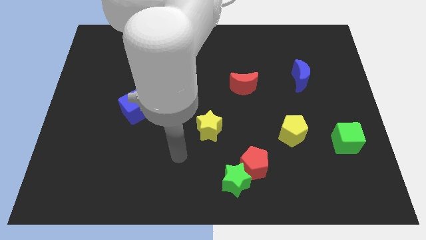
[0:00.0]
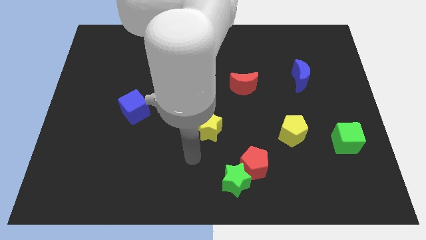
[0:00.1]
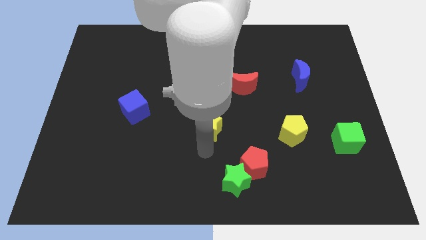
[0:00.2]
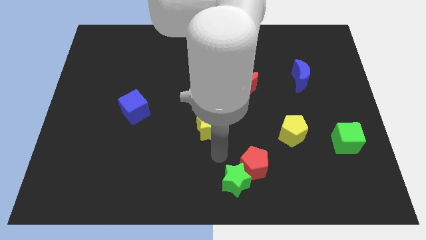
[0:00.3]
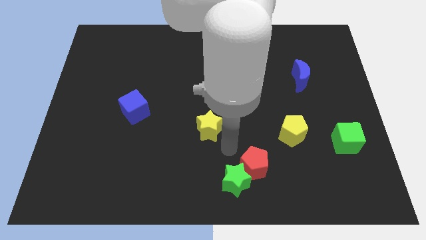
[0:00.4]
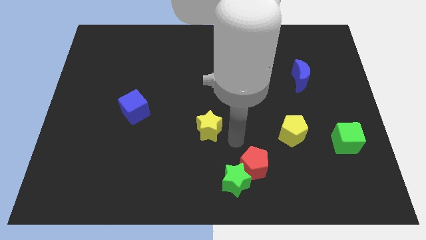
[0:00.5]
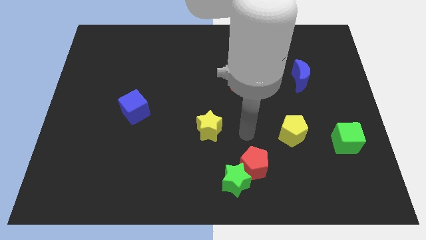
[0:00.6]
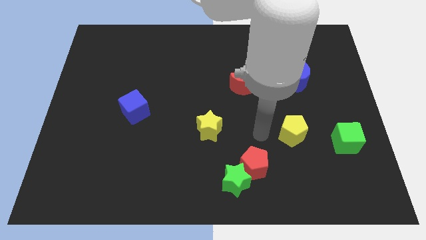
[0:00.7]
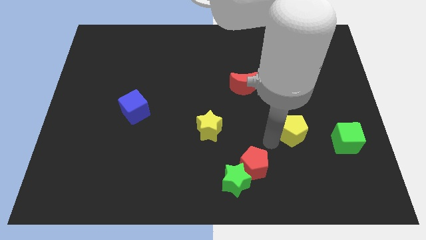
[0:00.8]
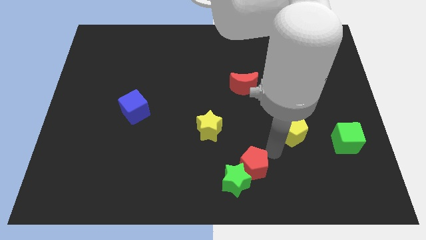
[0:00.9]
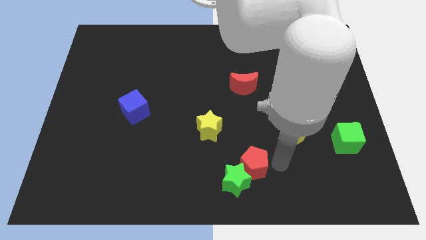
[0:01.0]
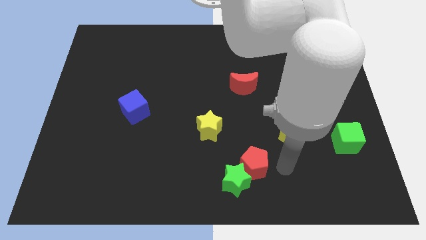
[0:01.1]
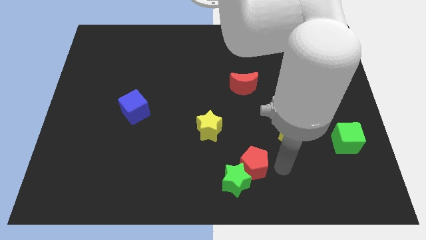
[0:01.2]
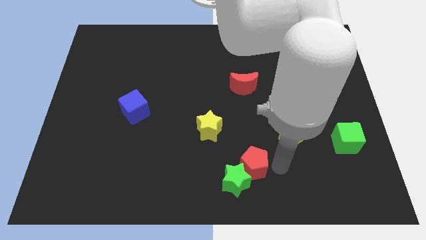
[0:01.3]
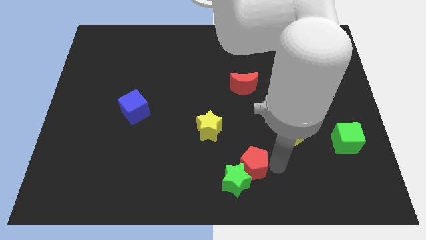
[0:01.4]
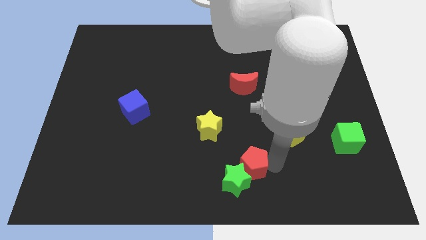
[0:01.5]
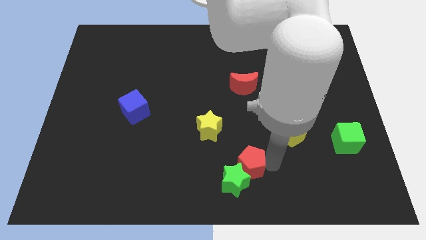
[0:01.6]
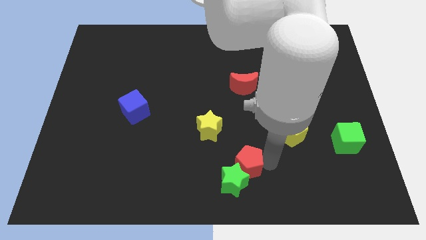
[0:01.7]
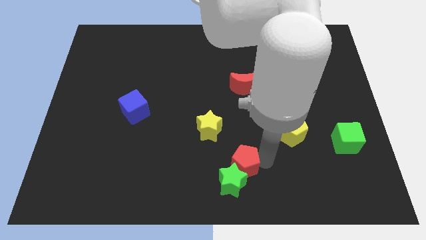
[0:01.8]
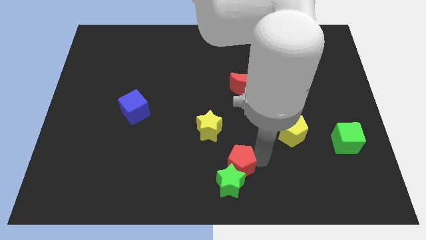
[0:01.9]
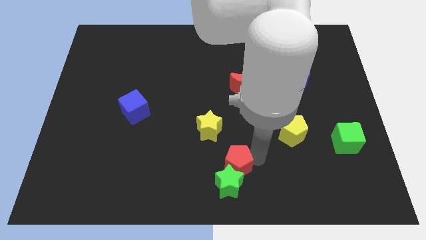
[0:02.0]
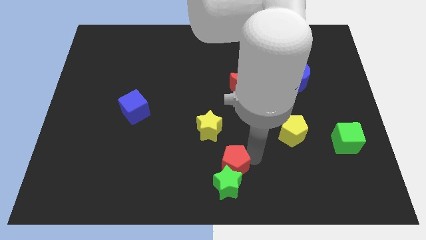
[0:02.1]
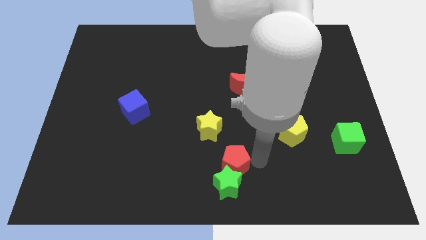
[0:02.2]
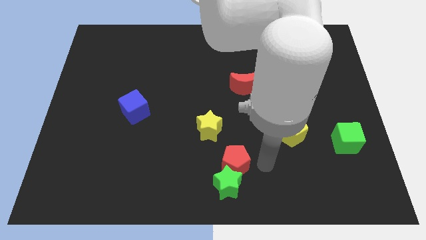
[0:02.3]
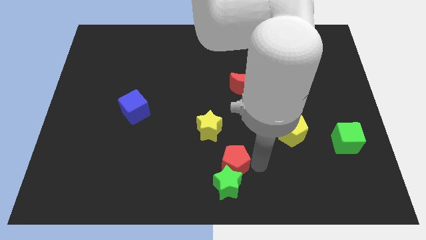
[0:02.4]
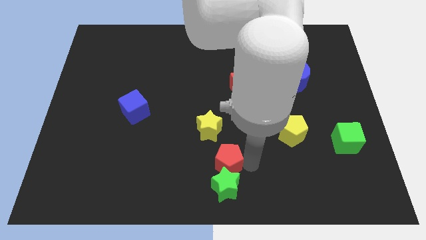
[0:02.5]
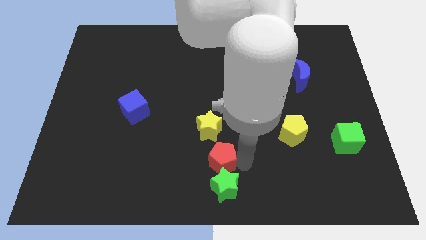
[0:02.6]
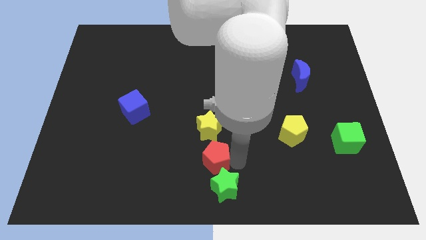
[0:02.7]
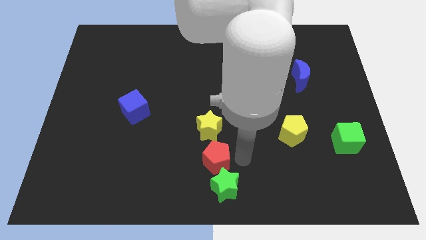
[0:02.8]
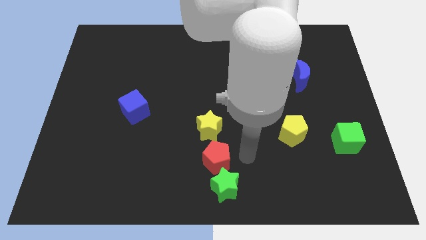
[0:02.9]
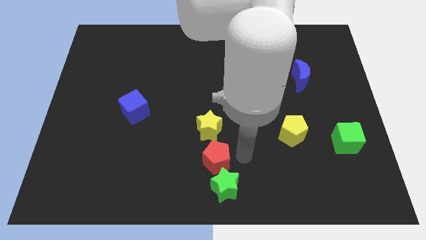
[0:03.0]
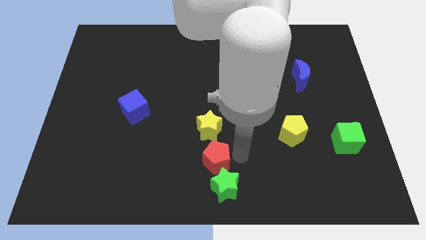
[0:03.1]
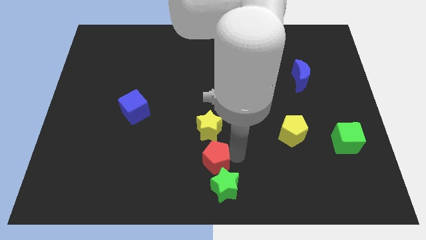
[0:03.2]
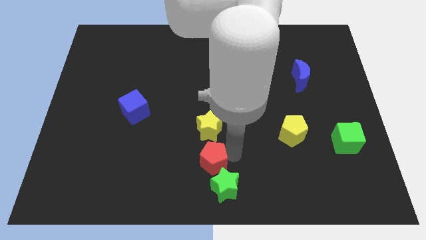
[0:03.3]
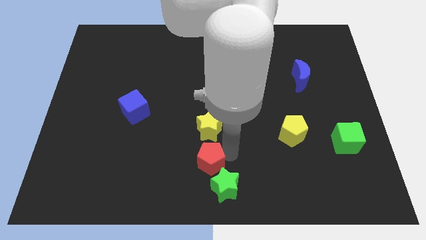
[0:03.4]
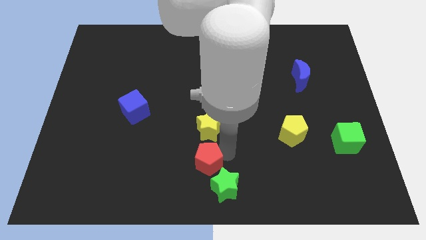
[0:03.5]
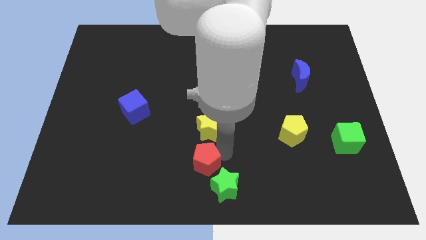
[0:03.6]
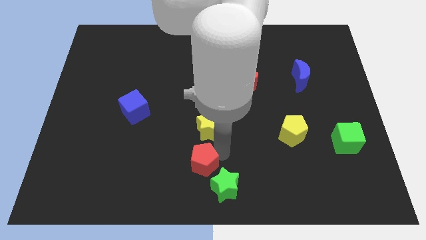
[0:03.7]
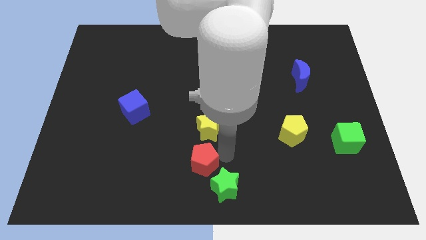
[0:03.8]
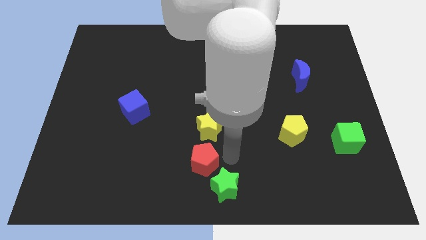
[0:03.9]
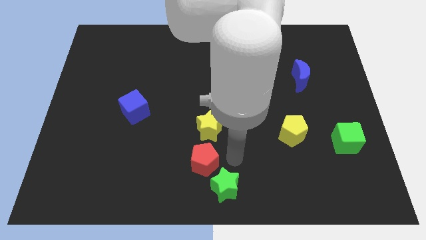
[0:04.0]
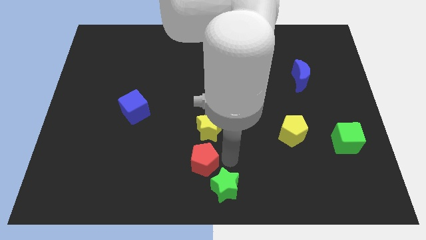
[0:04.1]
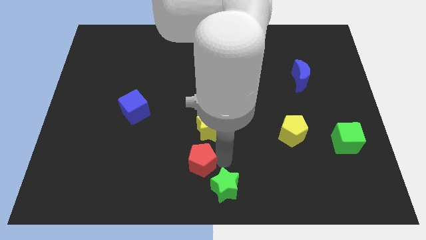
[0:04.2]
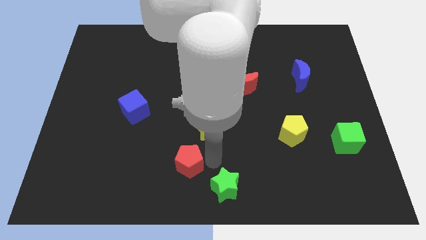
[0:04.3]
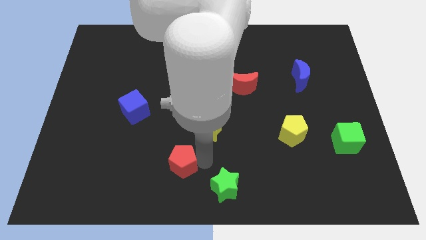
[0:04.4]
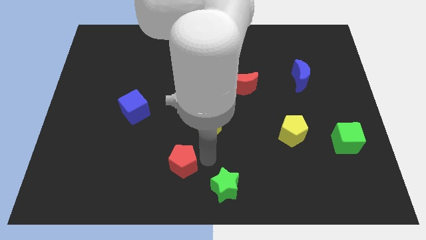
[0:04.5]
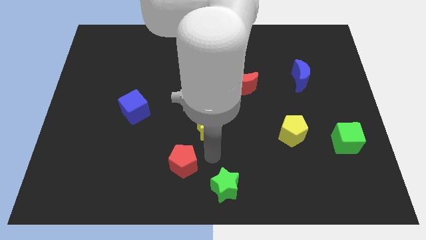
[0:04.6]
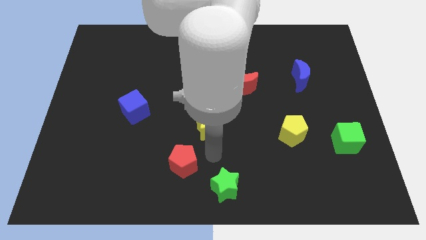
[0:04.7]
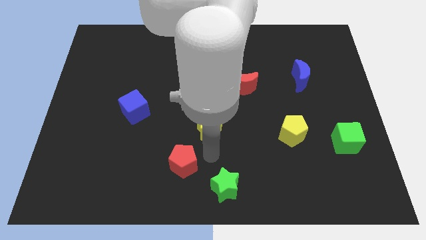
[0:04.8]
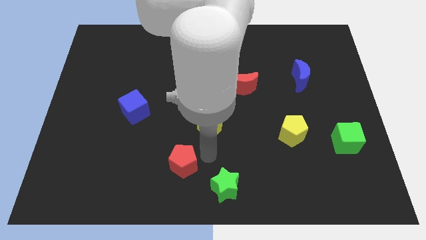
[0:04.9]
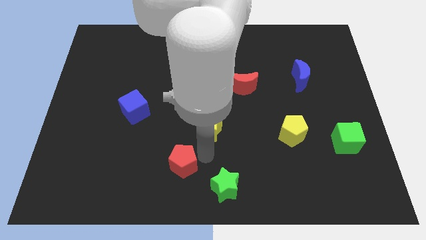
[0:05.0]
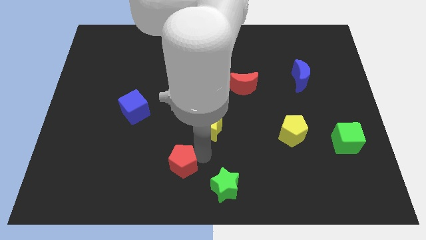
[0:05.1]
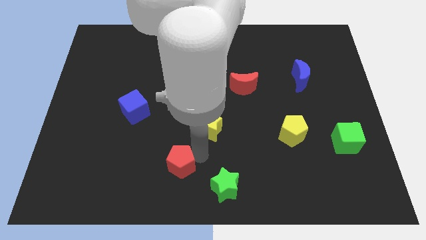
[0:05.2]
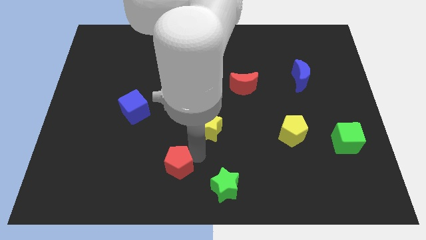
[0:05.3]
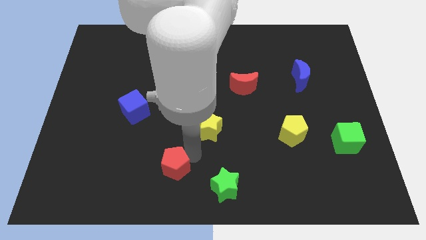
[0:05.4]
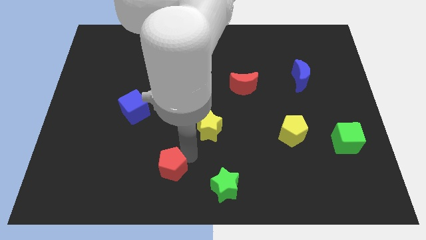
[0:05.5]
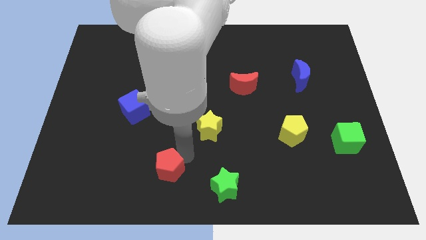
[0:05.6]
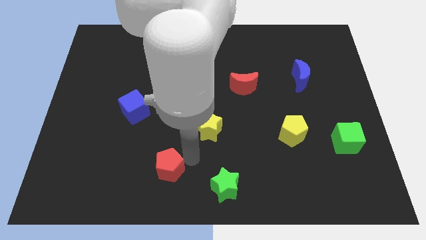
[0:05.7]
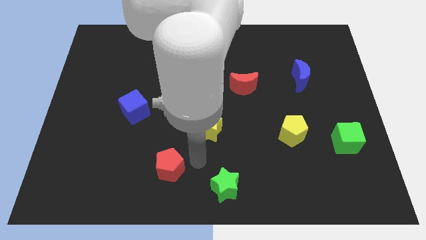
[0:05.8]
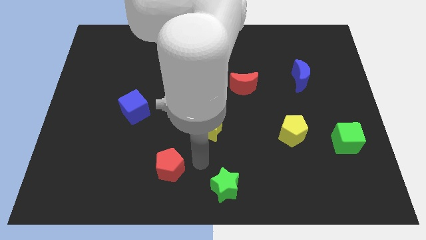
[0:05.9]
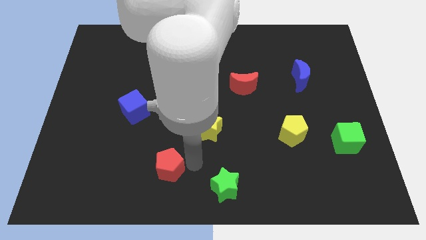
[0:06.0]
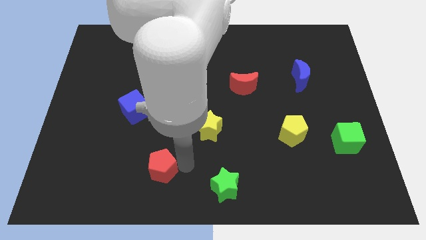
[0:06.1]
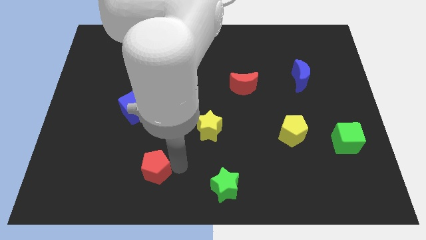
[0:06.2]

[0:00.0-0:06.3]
push the red pentagon to the left

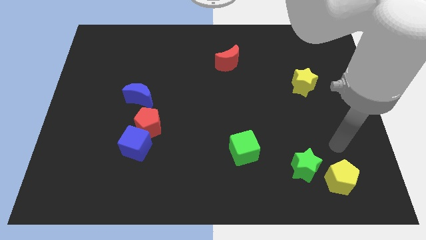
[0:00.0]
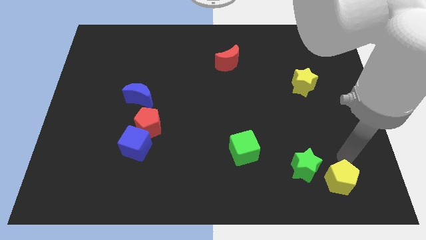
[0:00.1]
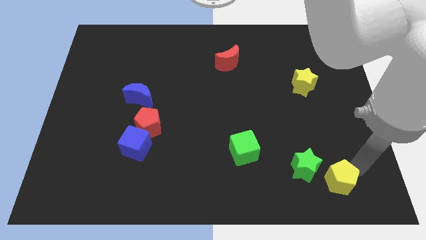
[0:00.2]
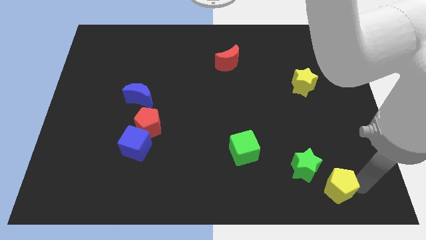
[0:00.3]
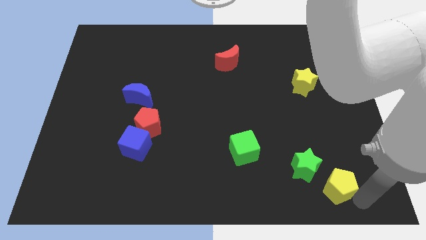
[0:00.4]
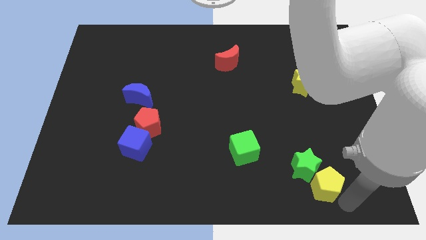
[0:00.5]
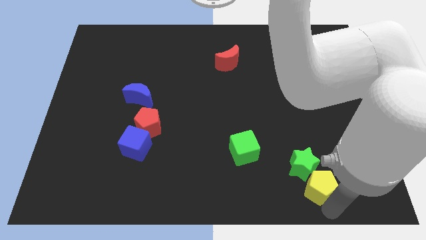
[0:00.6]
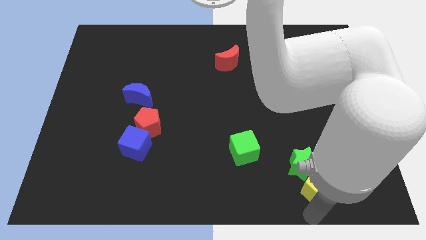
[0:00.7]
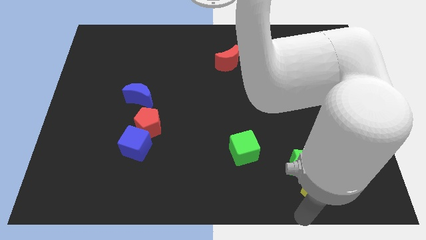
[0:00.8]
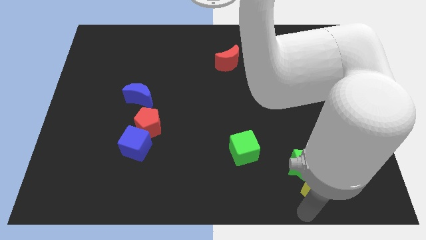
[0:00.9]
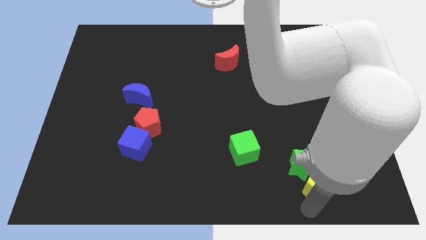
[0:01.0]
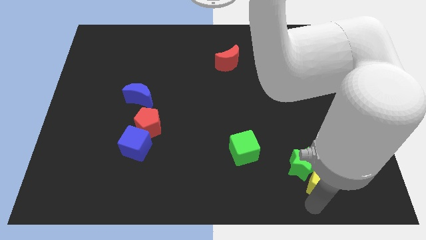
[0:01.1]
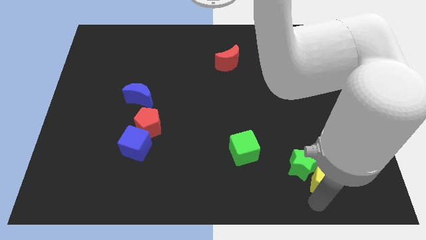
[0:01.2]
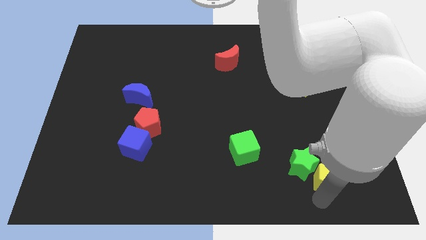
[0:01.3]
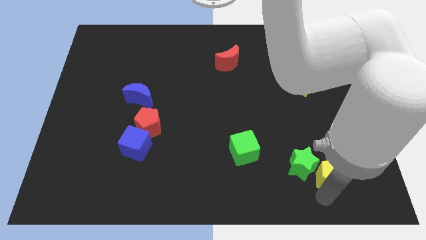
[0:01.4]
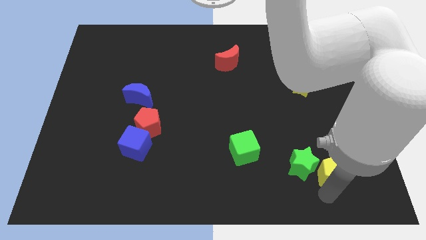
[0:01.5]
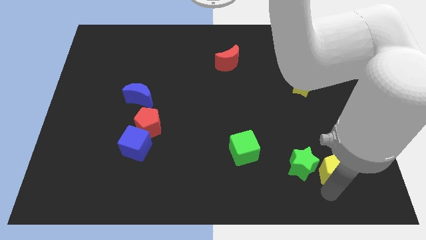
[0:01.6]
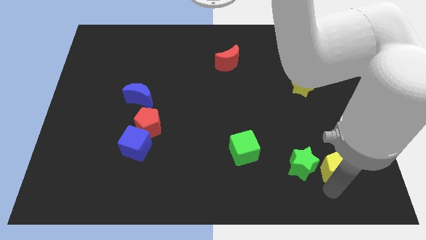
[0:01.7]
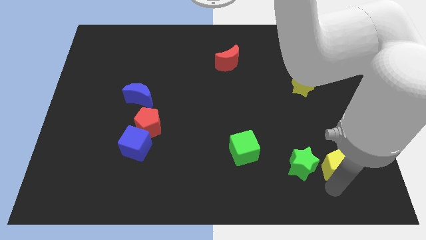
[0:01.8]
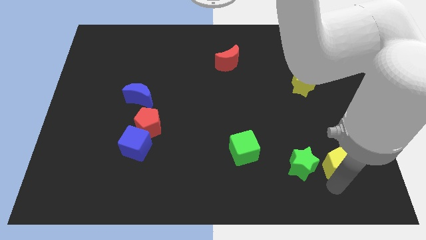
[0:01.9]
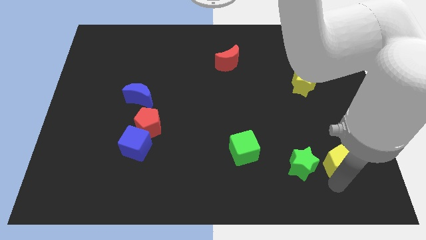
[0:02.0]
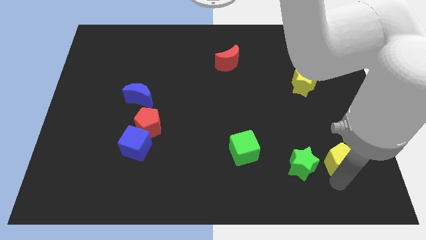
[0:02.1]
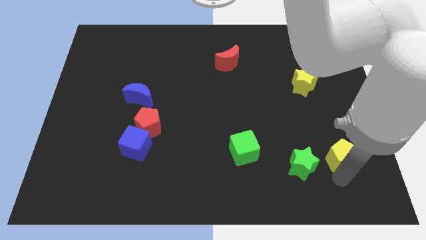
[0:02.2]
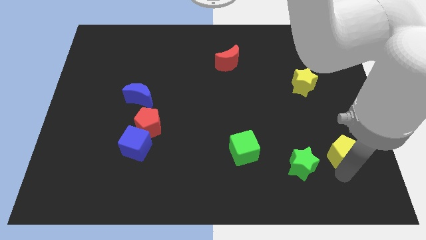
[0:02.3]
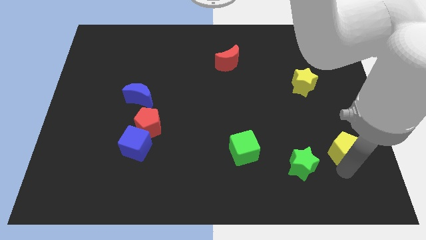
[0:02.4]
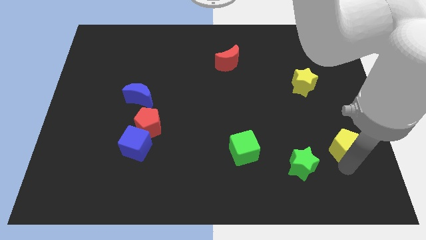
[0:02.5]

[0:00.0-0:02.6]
slightly push the yellow pentagon upwards
